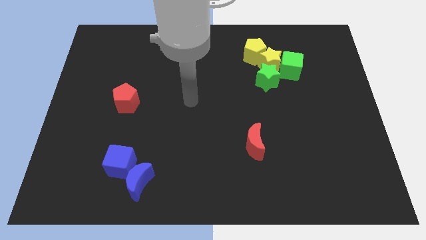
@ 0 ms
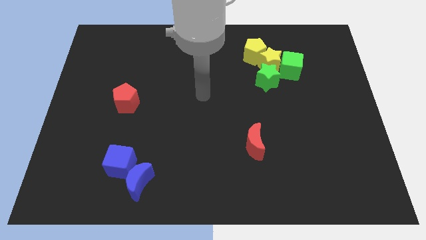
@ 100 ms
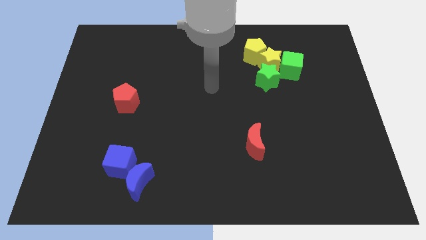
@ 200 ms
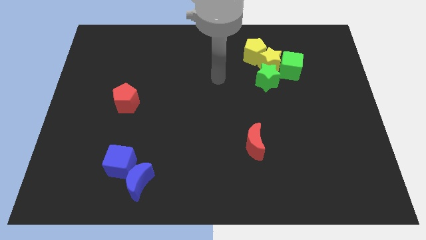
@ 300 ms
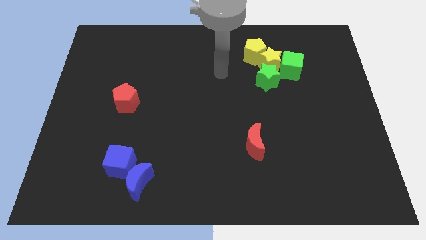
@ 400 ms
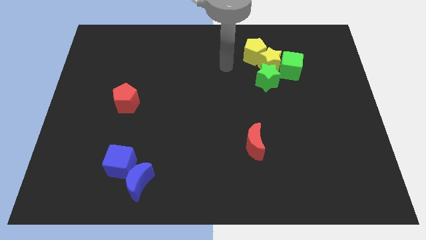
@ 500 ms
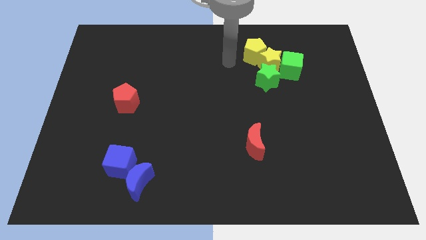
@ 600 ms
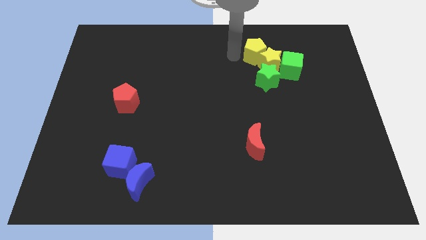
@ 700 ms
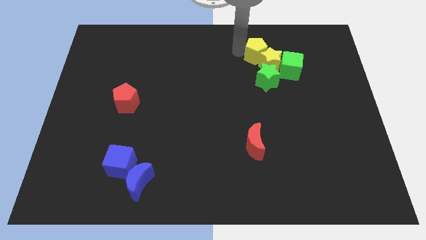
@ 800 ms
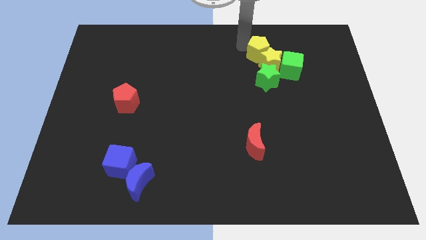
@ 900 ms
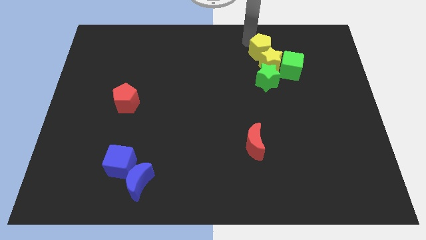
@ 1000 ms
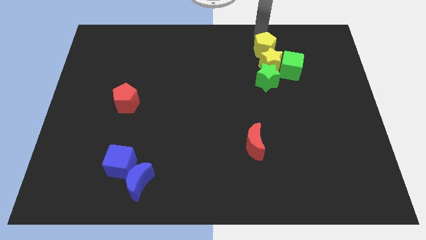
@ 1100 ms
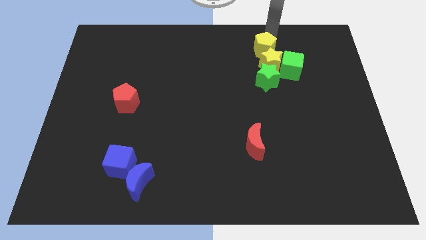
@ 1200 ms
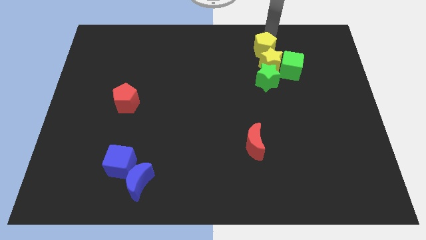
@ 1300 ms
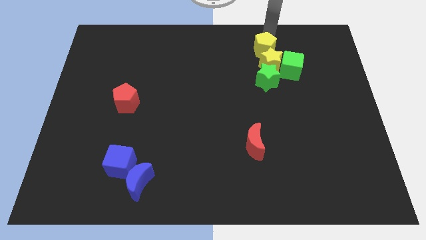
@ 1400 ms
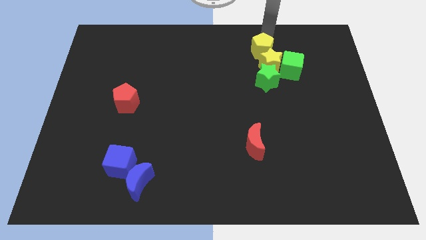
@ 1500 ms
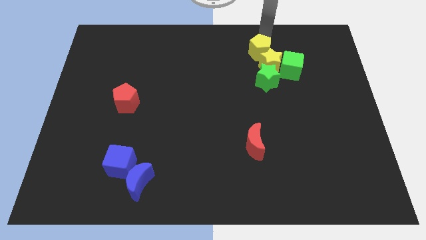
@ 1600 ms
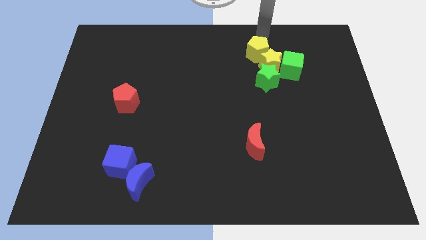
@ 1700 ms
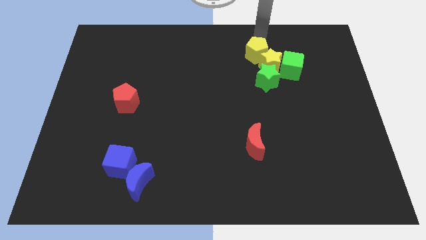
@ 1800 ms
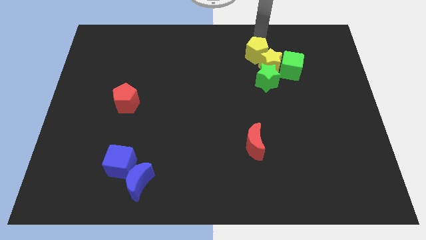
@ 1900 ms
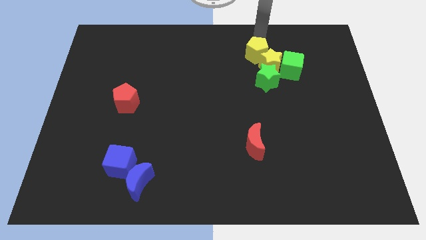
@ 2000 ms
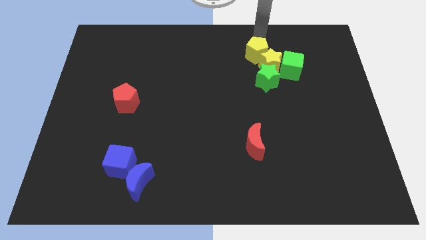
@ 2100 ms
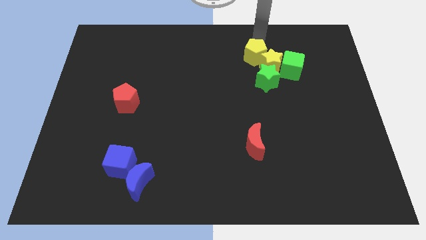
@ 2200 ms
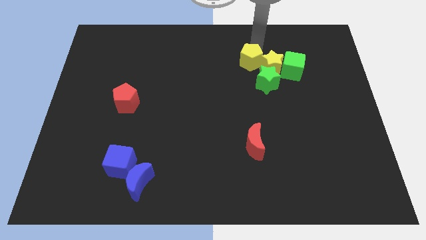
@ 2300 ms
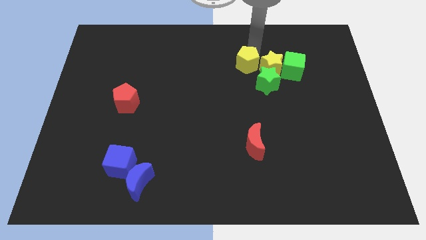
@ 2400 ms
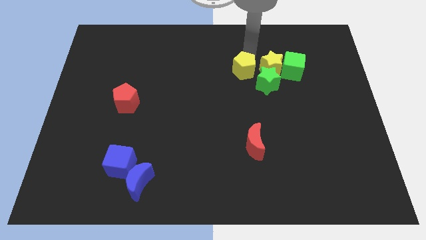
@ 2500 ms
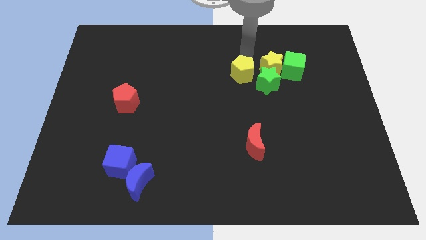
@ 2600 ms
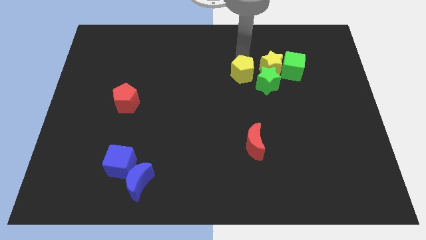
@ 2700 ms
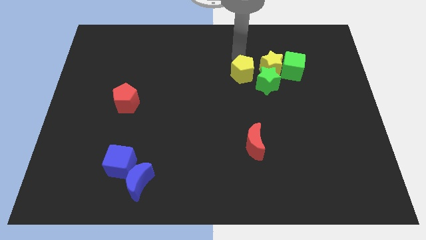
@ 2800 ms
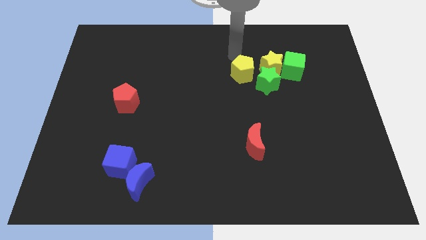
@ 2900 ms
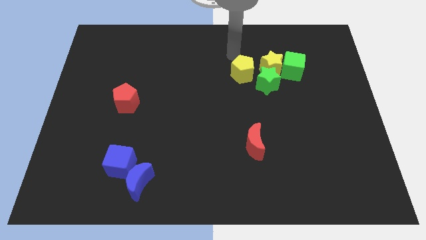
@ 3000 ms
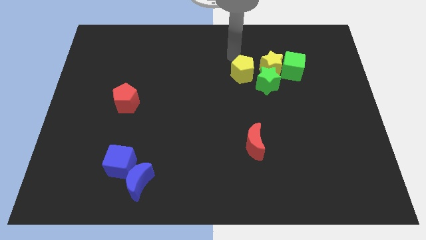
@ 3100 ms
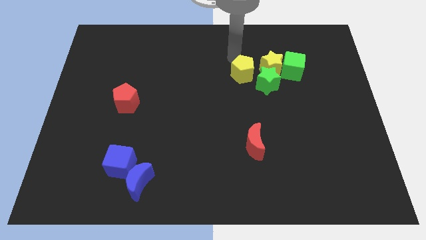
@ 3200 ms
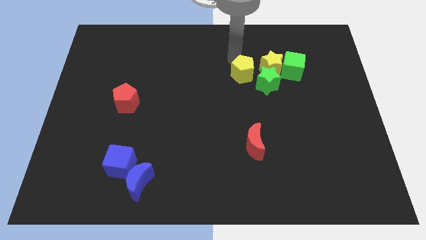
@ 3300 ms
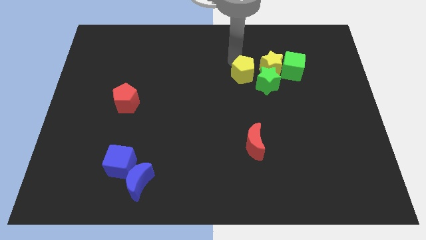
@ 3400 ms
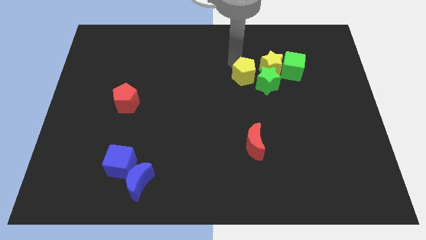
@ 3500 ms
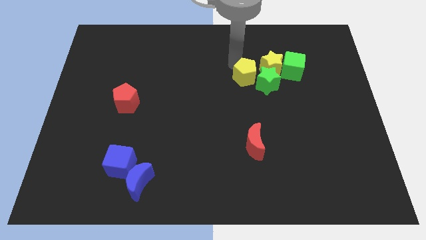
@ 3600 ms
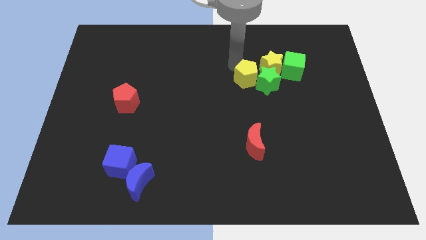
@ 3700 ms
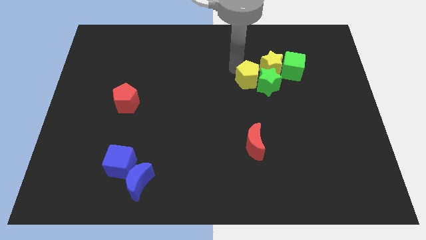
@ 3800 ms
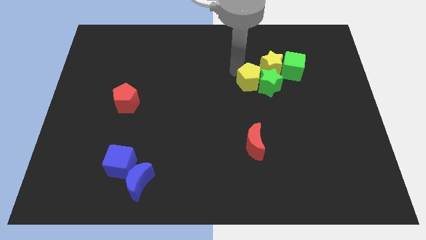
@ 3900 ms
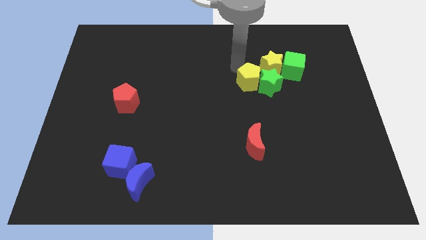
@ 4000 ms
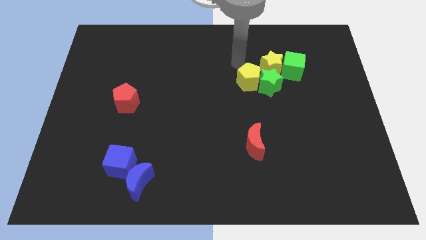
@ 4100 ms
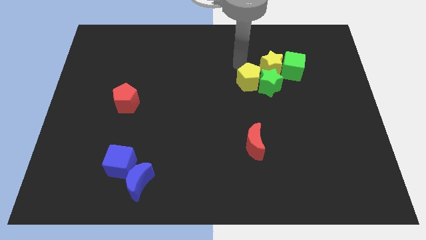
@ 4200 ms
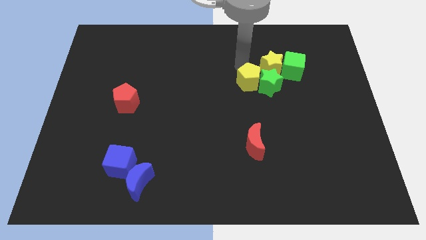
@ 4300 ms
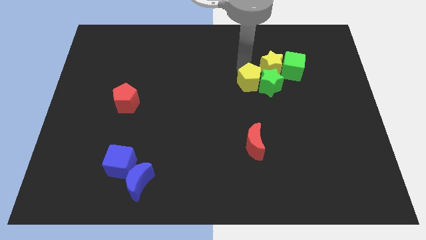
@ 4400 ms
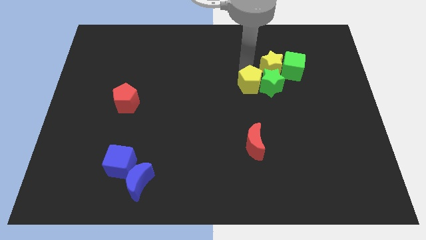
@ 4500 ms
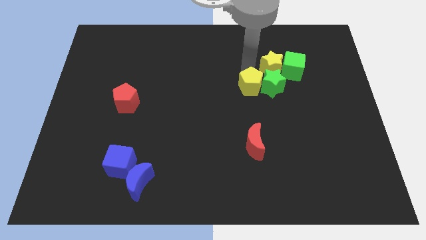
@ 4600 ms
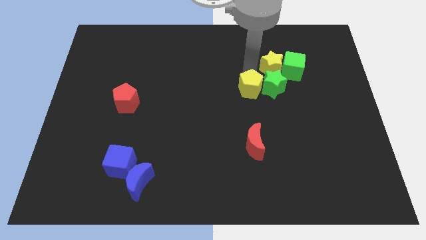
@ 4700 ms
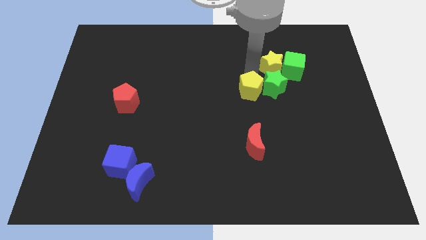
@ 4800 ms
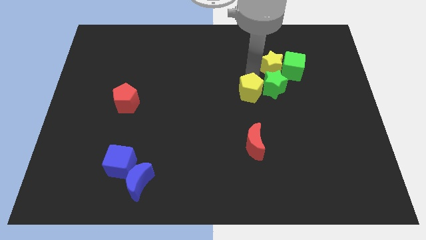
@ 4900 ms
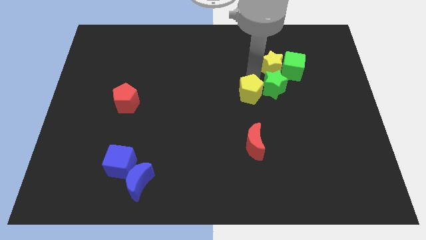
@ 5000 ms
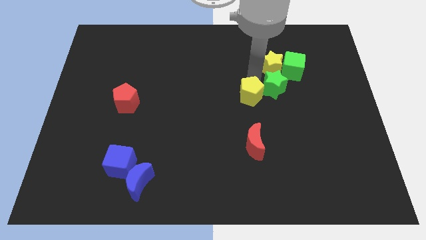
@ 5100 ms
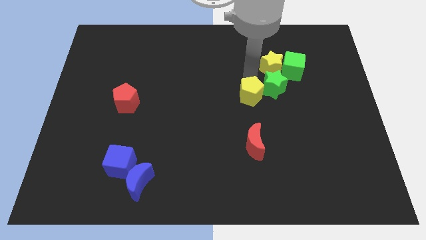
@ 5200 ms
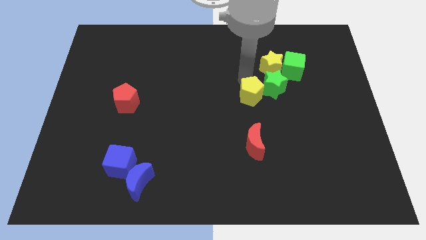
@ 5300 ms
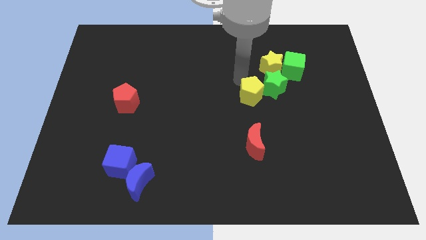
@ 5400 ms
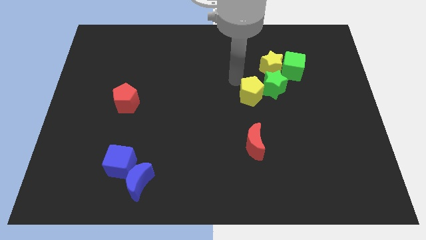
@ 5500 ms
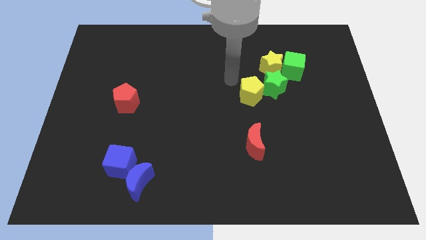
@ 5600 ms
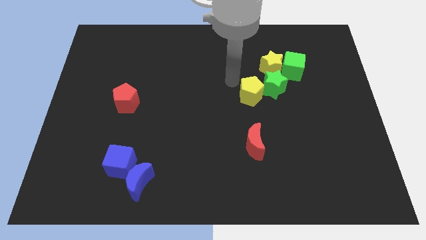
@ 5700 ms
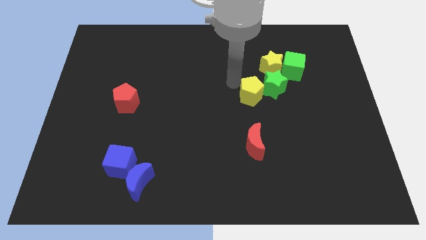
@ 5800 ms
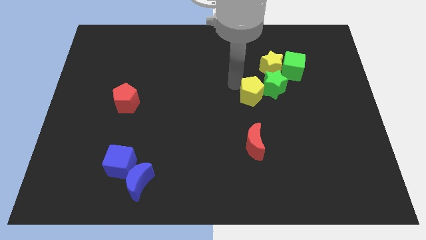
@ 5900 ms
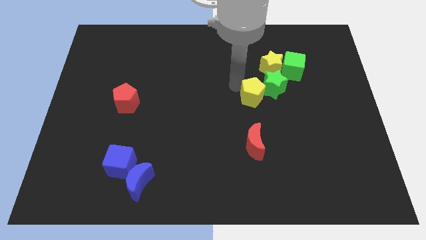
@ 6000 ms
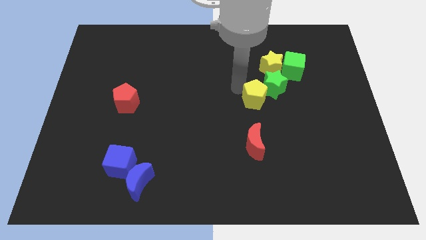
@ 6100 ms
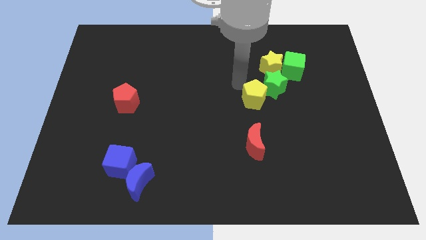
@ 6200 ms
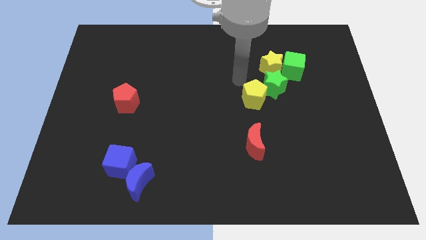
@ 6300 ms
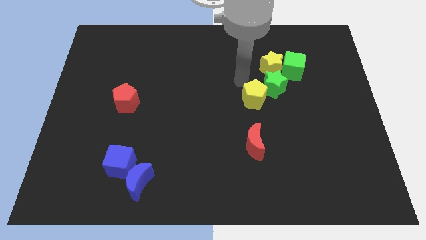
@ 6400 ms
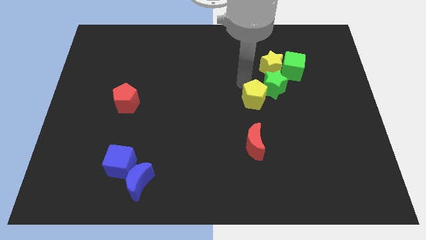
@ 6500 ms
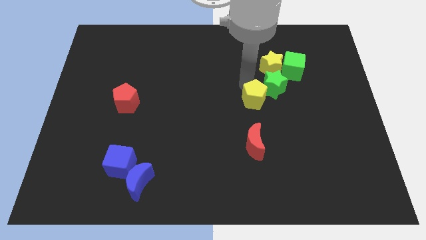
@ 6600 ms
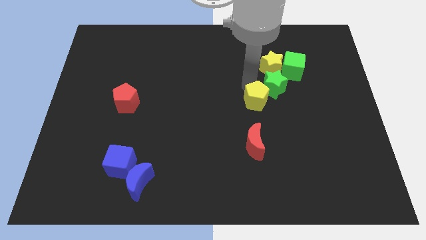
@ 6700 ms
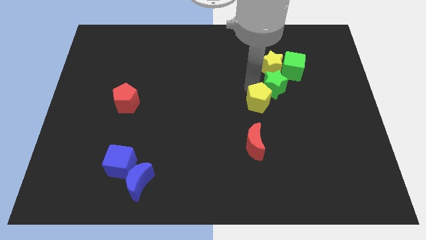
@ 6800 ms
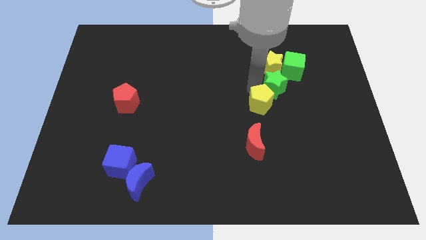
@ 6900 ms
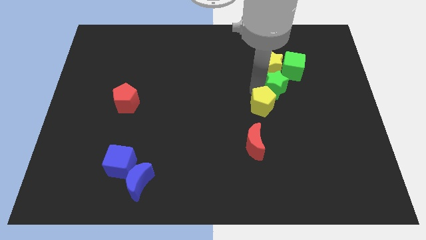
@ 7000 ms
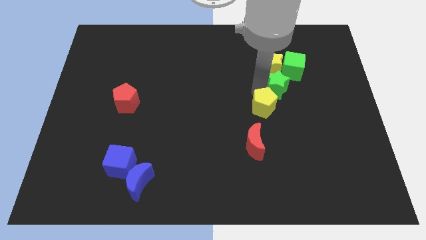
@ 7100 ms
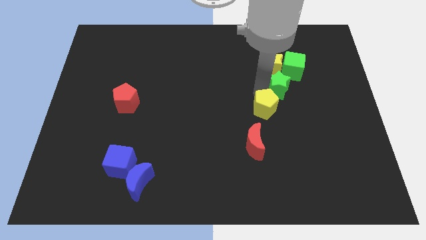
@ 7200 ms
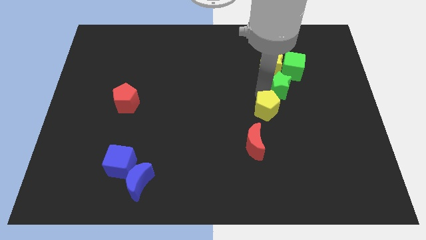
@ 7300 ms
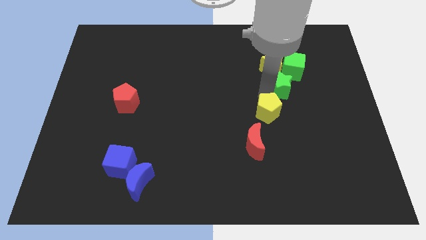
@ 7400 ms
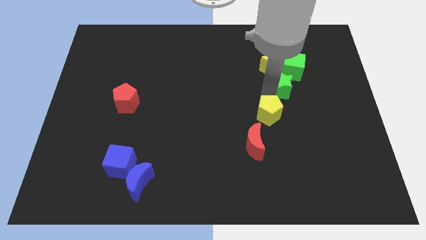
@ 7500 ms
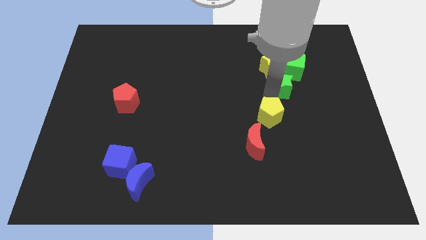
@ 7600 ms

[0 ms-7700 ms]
slide the yellow pentagon downwards
